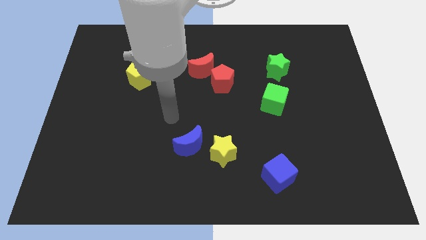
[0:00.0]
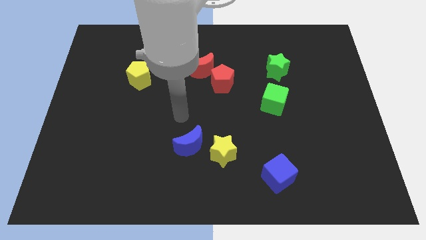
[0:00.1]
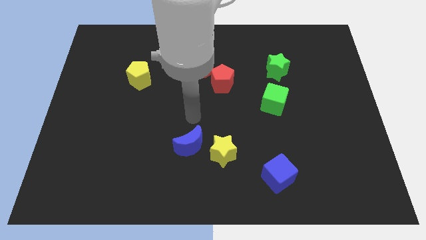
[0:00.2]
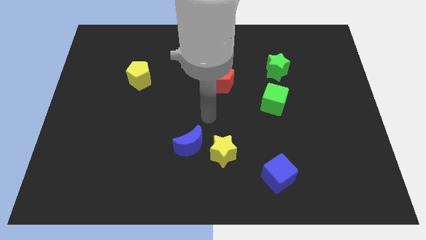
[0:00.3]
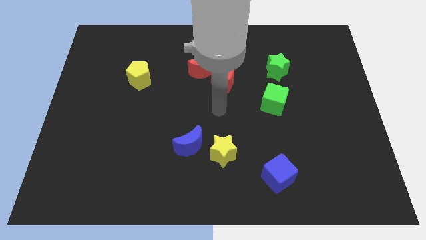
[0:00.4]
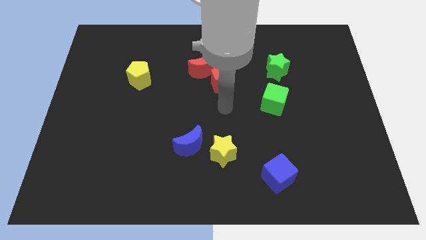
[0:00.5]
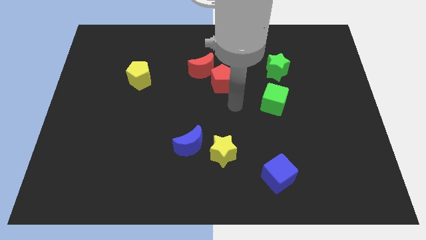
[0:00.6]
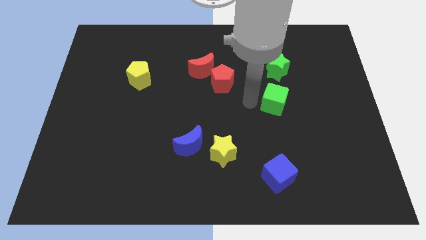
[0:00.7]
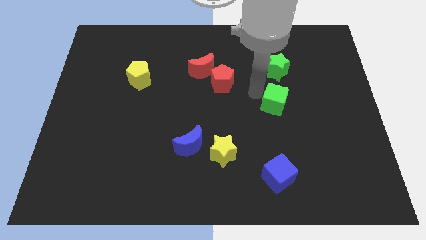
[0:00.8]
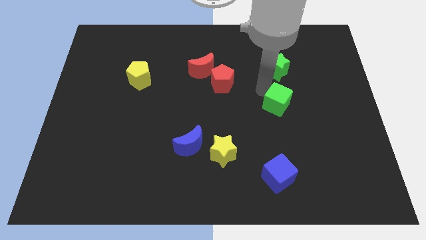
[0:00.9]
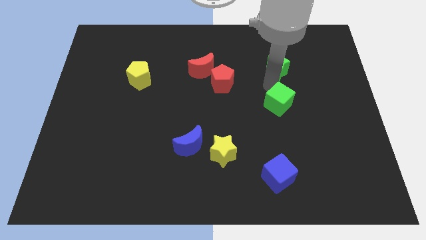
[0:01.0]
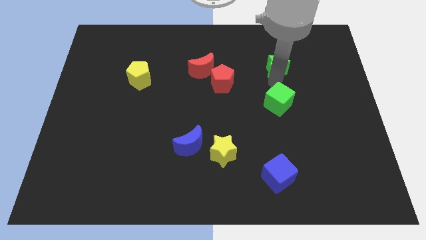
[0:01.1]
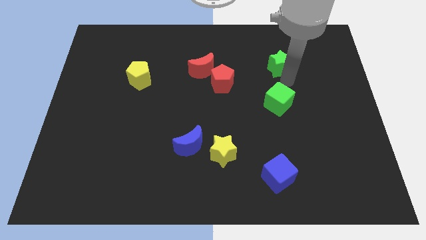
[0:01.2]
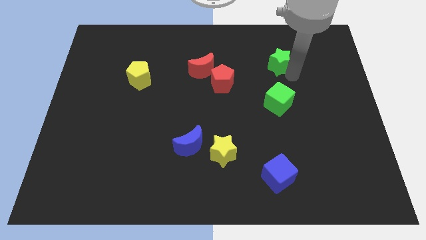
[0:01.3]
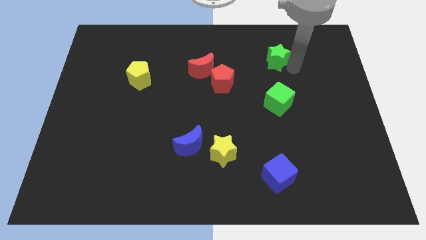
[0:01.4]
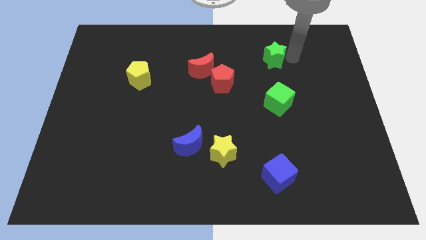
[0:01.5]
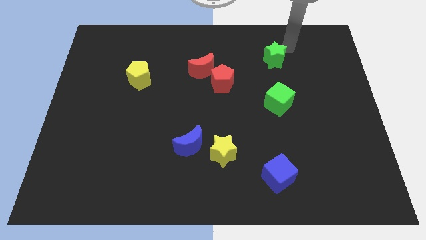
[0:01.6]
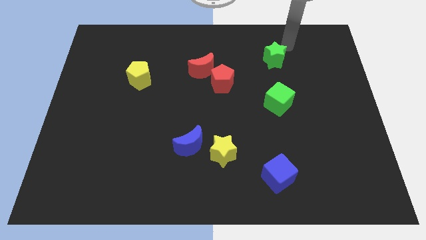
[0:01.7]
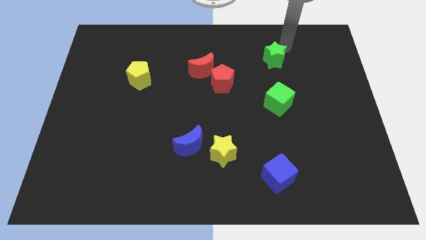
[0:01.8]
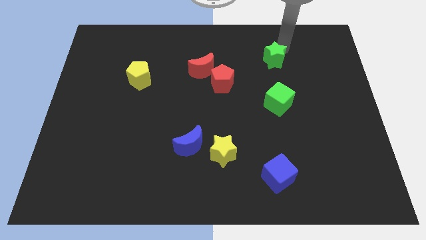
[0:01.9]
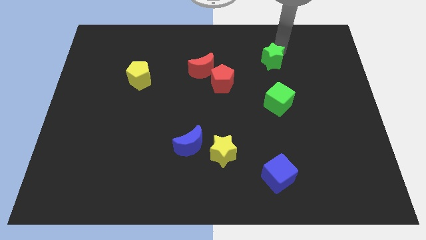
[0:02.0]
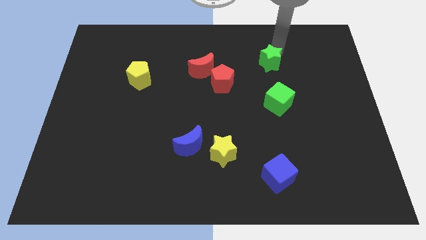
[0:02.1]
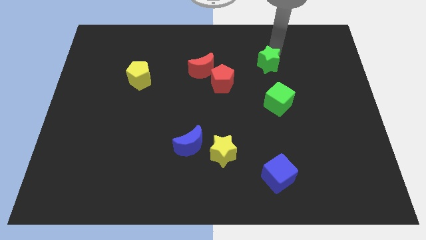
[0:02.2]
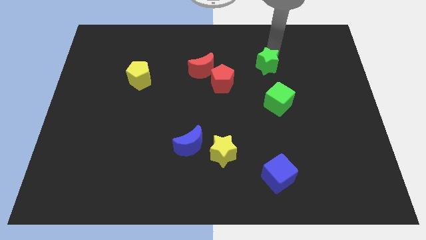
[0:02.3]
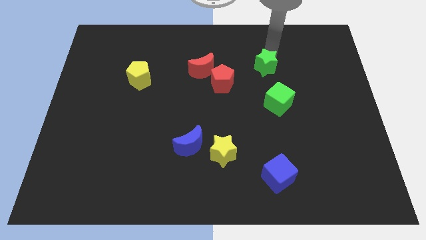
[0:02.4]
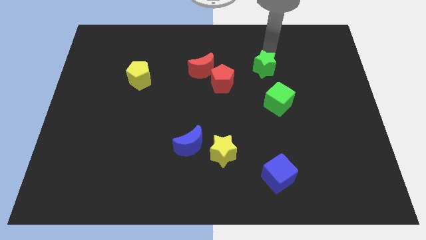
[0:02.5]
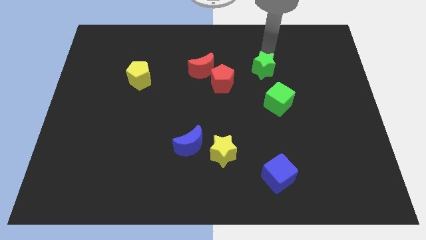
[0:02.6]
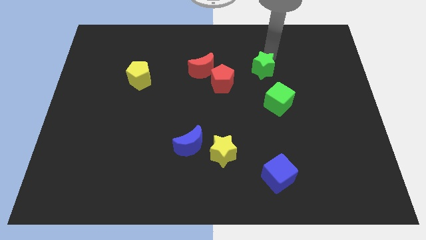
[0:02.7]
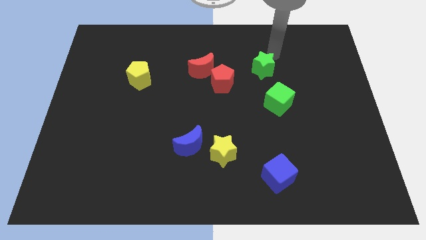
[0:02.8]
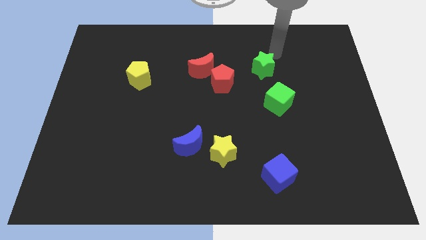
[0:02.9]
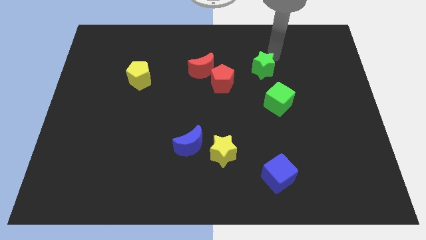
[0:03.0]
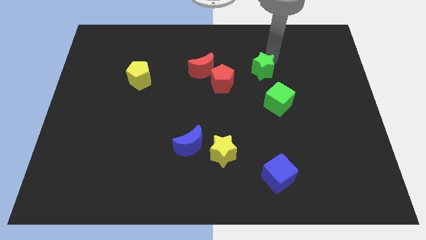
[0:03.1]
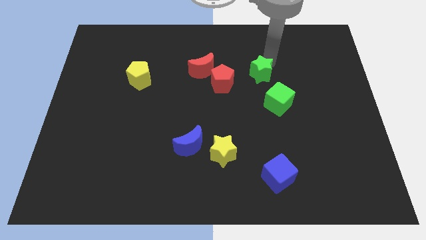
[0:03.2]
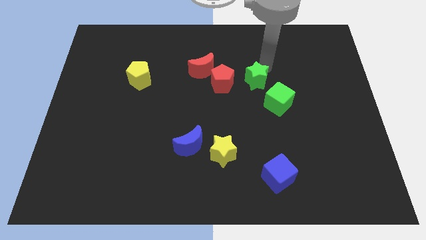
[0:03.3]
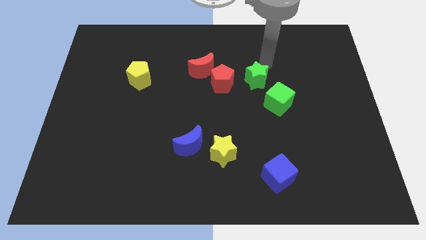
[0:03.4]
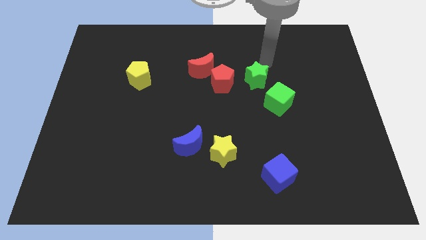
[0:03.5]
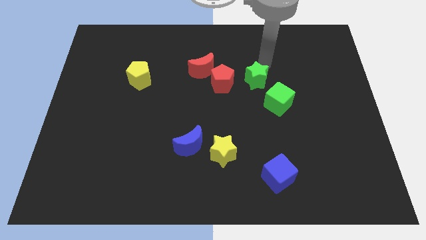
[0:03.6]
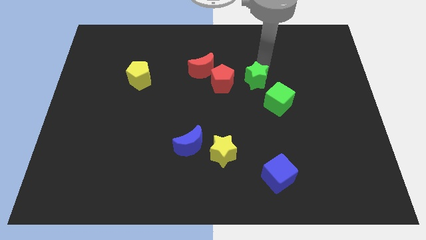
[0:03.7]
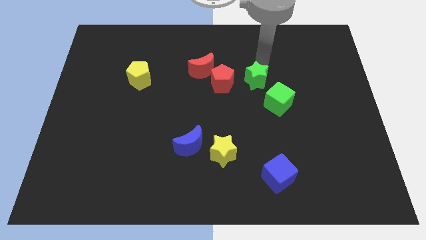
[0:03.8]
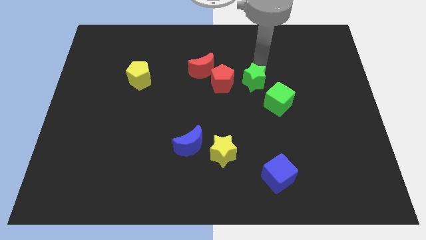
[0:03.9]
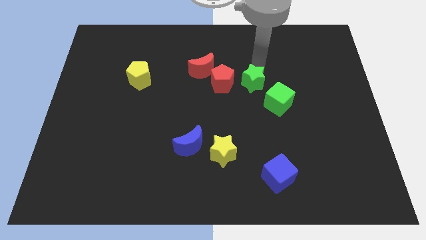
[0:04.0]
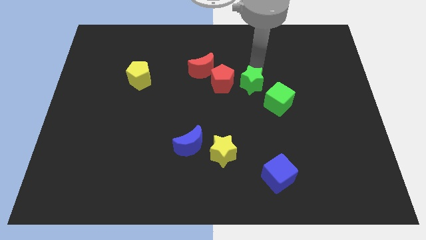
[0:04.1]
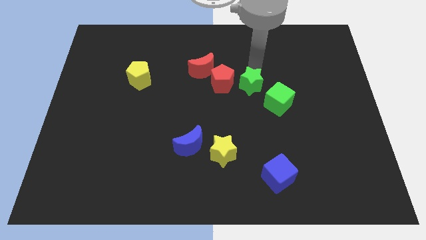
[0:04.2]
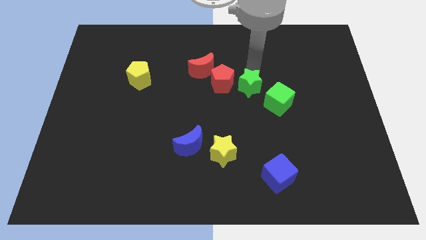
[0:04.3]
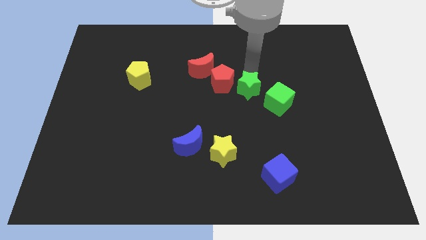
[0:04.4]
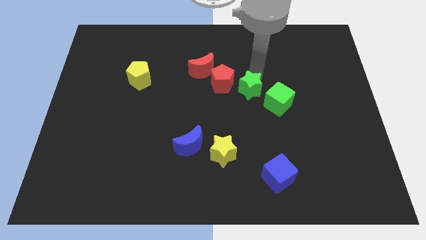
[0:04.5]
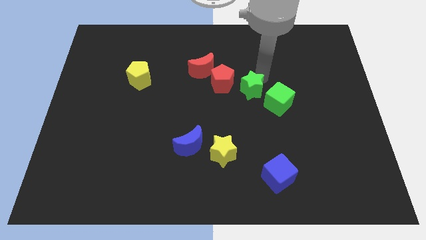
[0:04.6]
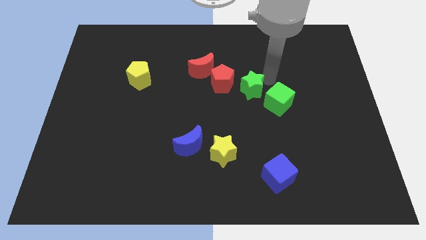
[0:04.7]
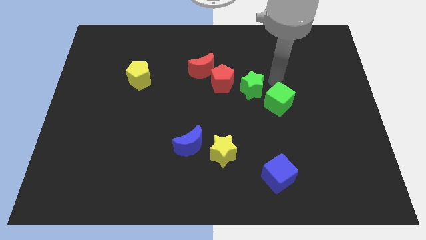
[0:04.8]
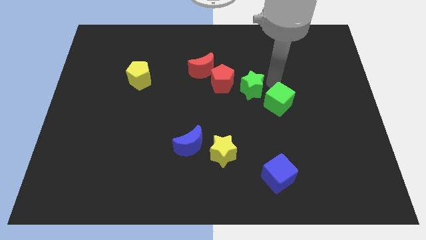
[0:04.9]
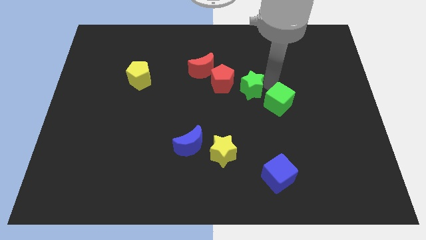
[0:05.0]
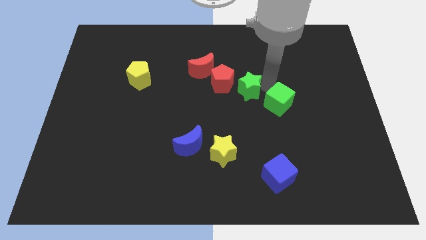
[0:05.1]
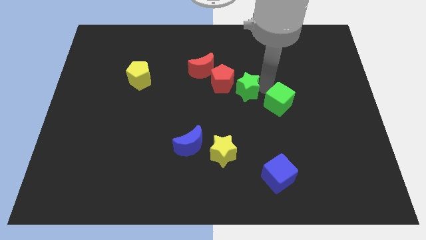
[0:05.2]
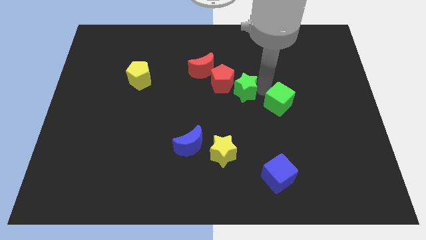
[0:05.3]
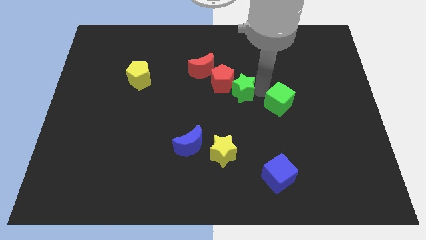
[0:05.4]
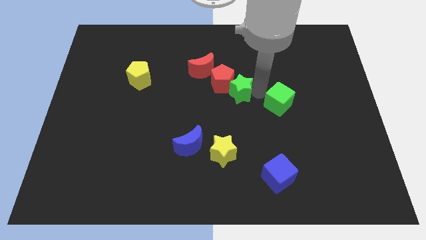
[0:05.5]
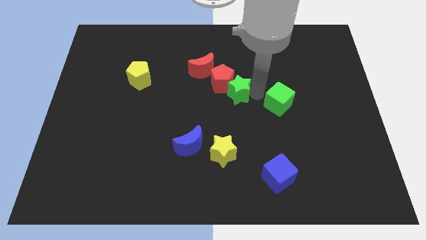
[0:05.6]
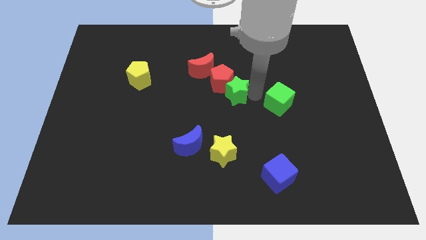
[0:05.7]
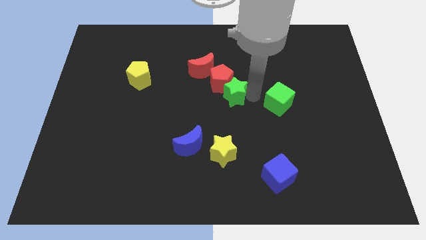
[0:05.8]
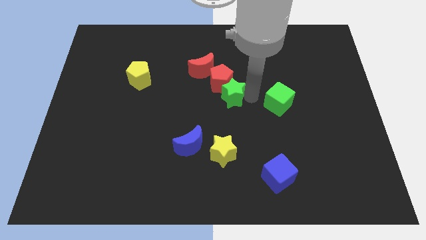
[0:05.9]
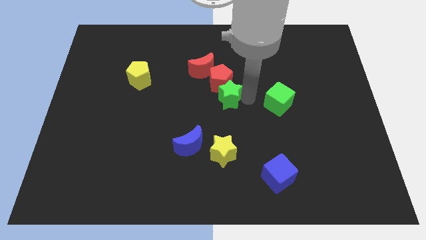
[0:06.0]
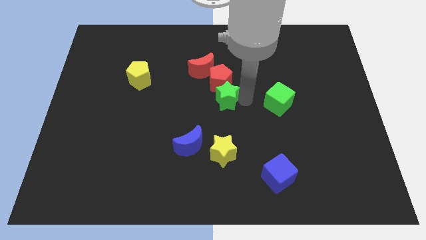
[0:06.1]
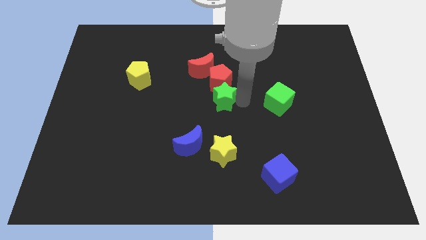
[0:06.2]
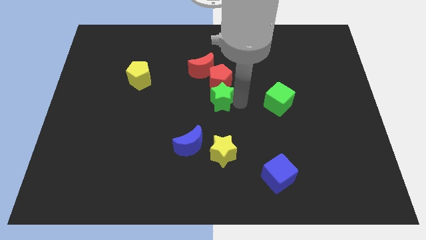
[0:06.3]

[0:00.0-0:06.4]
put the green star diagonally down and to the left of the red pentagon

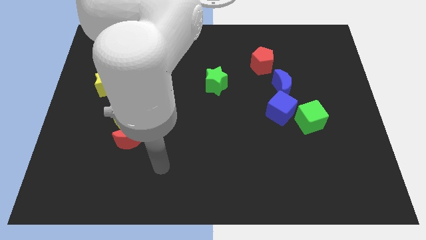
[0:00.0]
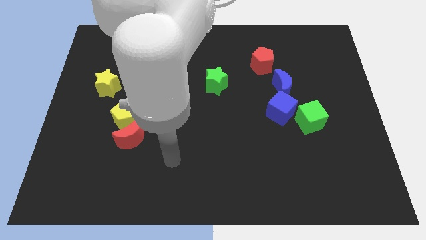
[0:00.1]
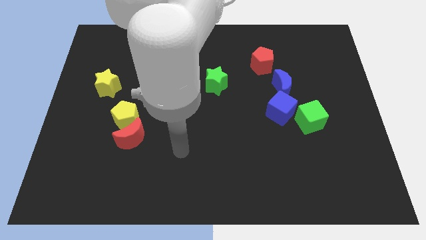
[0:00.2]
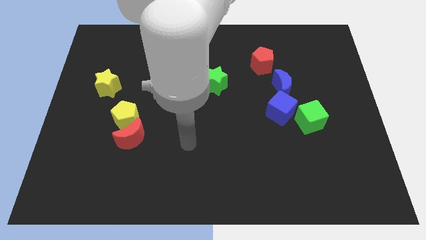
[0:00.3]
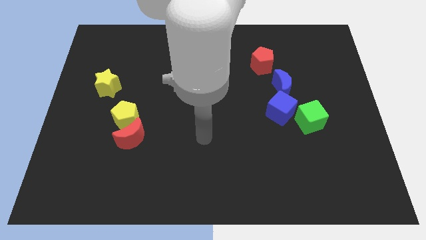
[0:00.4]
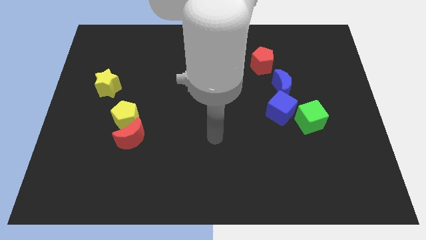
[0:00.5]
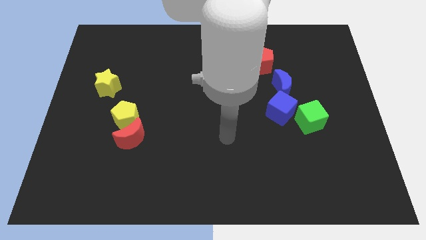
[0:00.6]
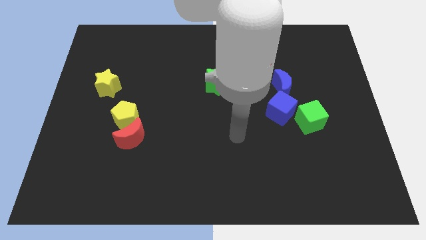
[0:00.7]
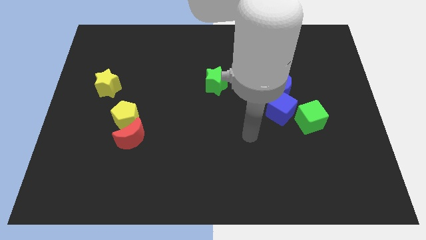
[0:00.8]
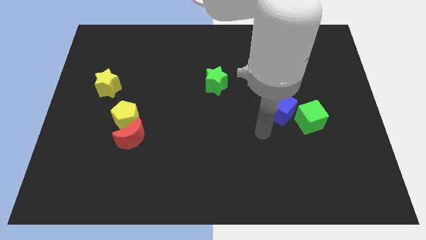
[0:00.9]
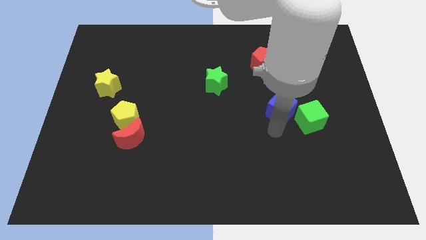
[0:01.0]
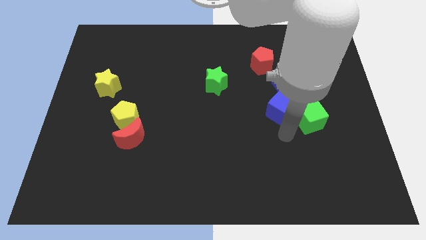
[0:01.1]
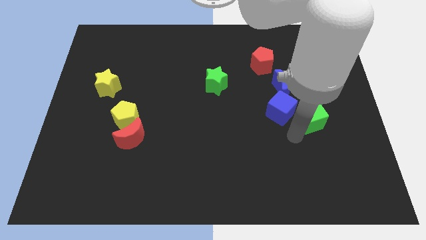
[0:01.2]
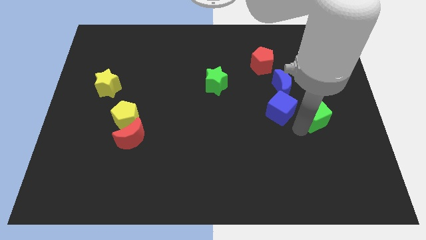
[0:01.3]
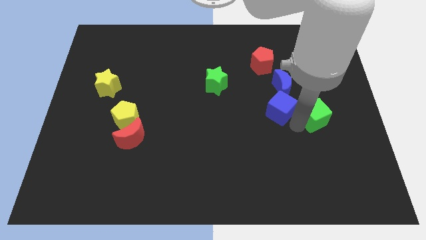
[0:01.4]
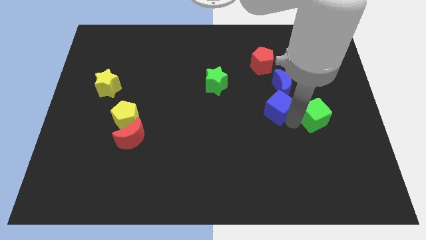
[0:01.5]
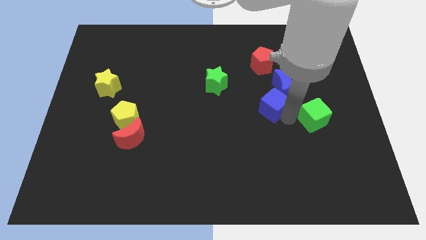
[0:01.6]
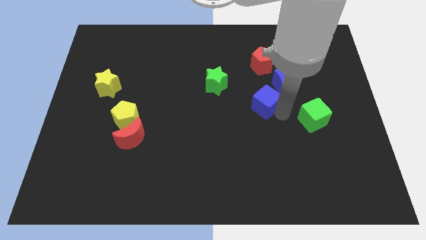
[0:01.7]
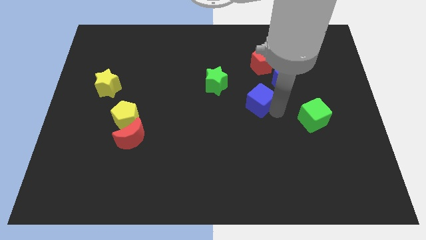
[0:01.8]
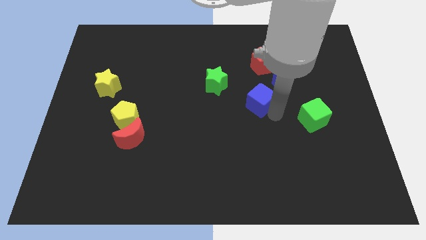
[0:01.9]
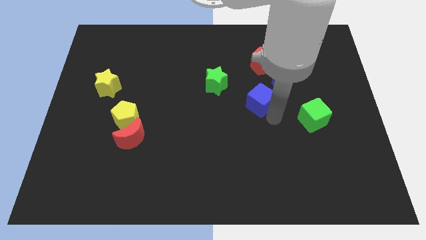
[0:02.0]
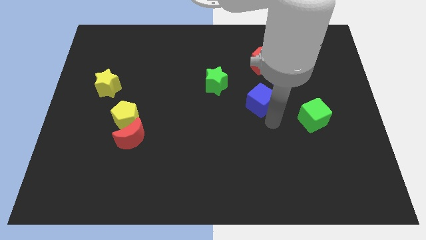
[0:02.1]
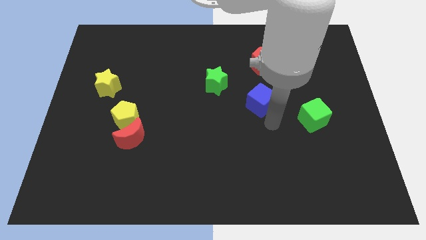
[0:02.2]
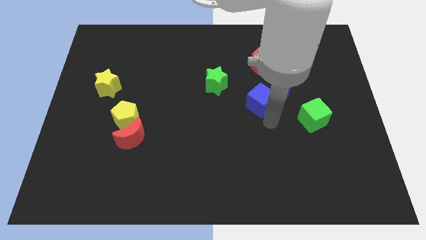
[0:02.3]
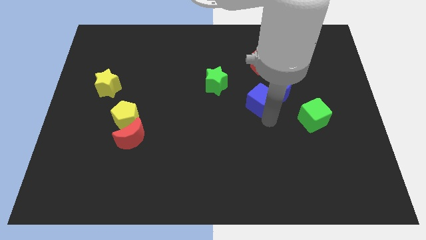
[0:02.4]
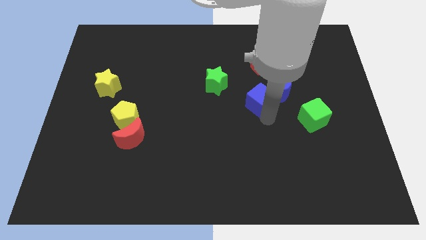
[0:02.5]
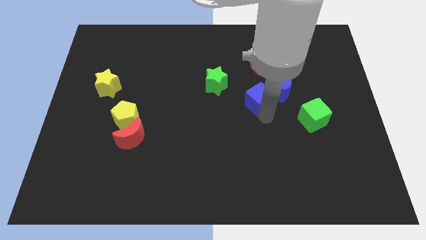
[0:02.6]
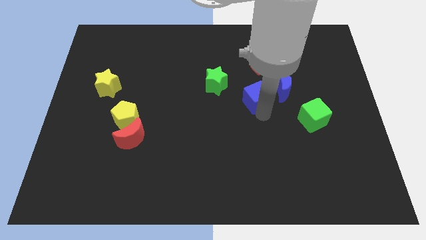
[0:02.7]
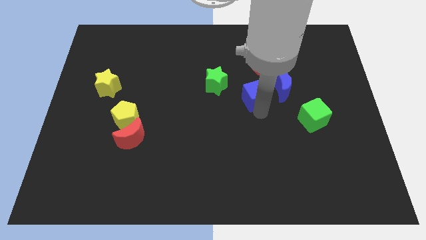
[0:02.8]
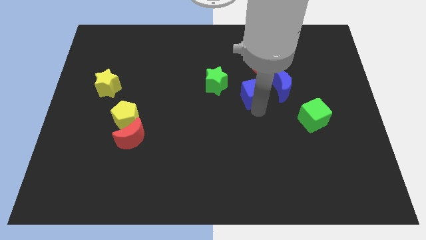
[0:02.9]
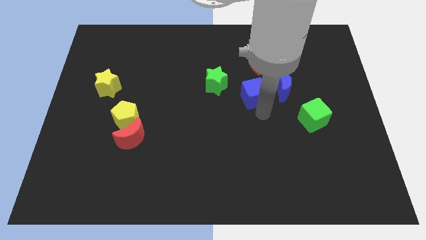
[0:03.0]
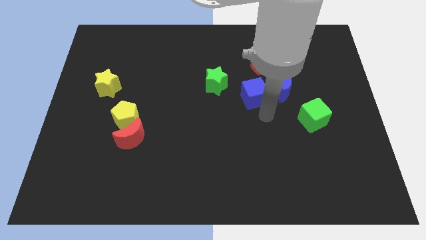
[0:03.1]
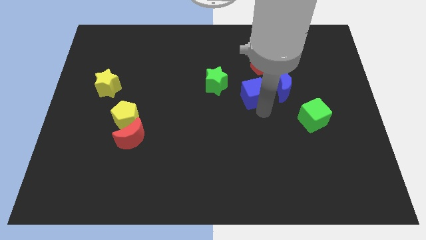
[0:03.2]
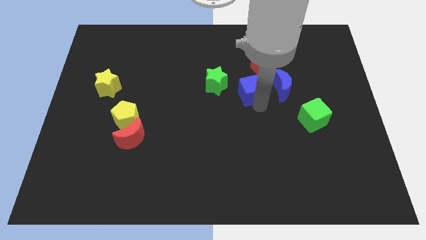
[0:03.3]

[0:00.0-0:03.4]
move the blue cube to the bottom left of the red pentagon
